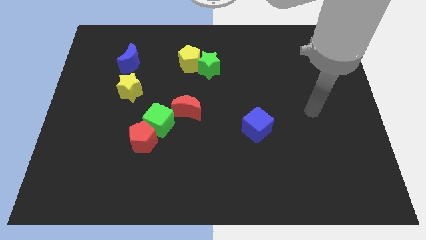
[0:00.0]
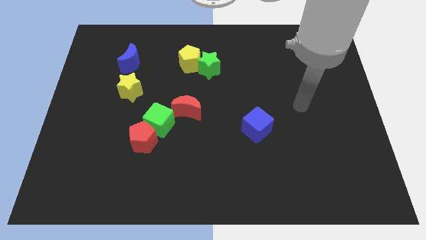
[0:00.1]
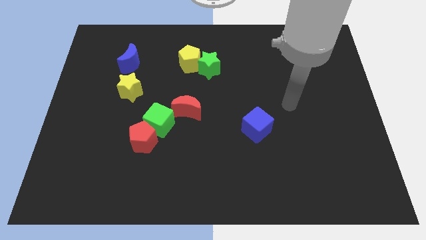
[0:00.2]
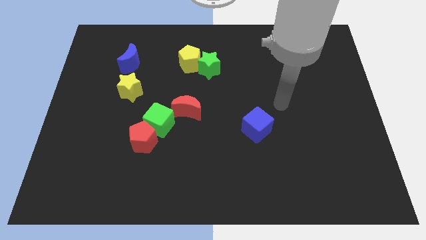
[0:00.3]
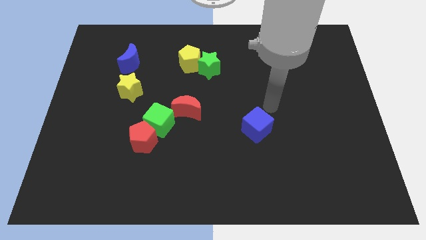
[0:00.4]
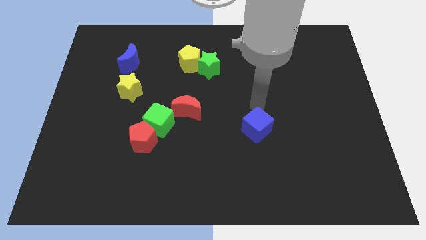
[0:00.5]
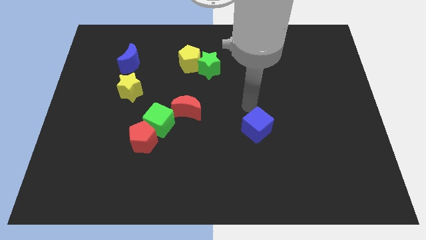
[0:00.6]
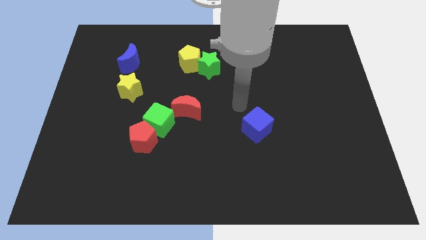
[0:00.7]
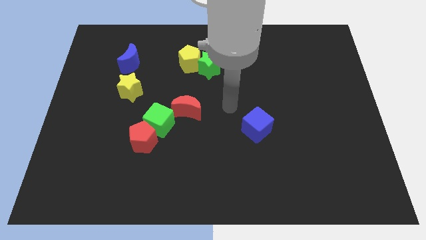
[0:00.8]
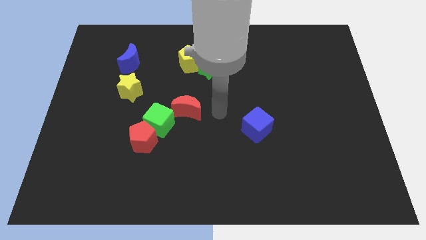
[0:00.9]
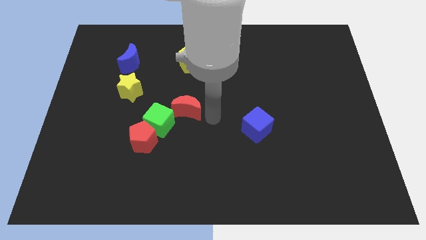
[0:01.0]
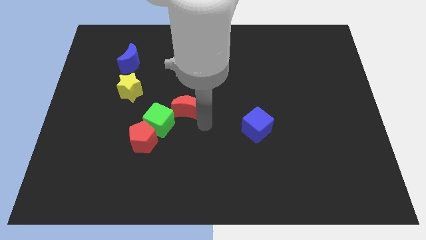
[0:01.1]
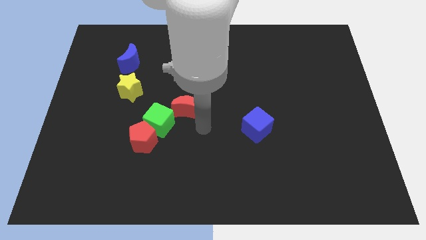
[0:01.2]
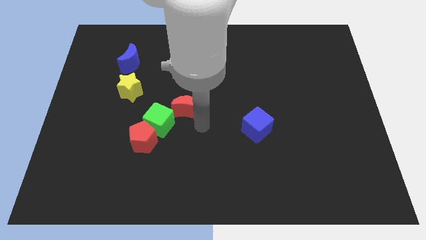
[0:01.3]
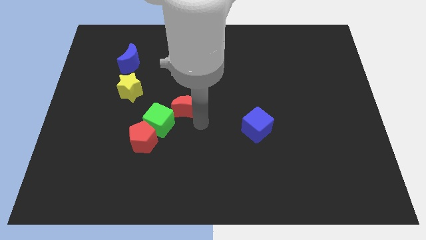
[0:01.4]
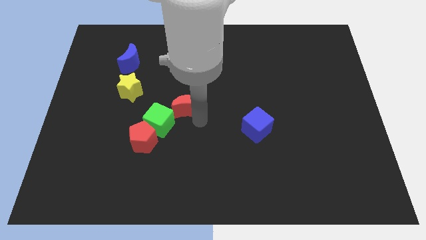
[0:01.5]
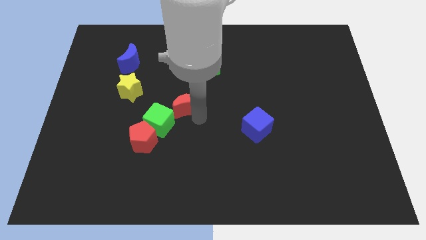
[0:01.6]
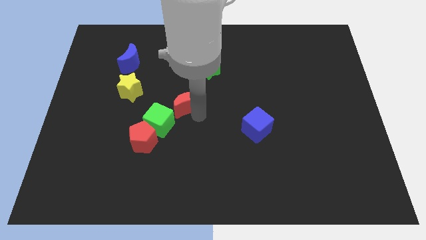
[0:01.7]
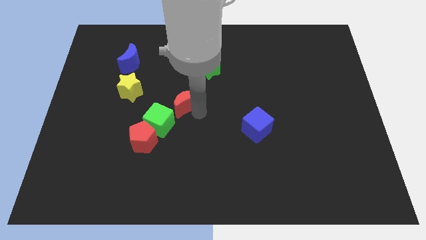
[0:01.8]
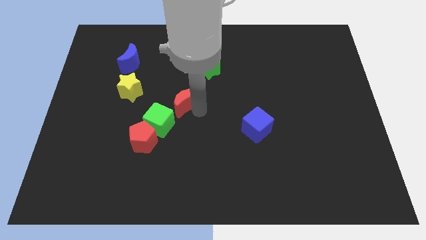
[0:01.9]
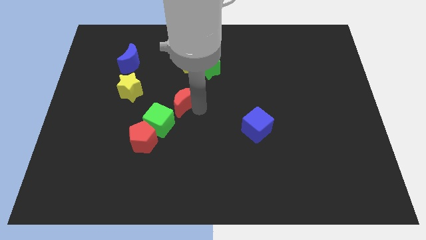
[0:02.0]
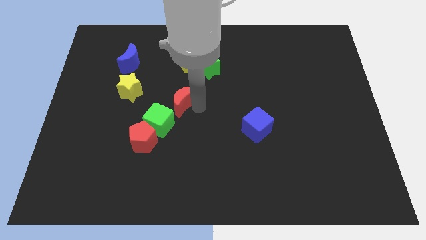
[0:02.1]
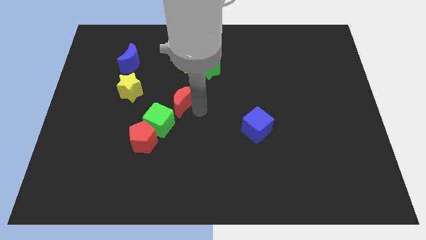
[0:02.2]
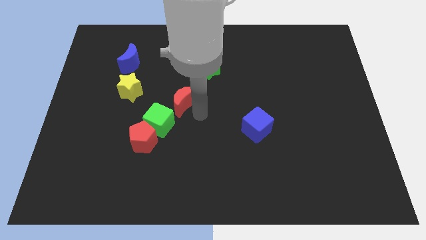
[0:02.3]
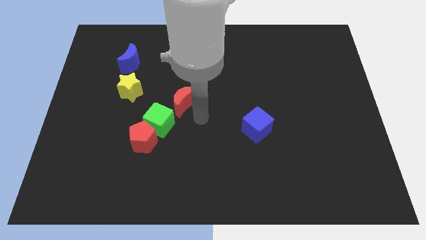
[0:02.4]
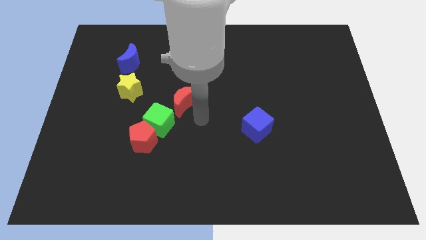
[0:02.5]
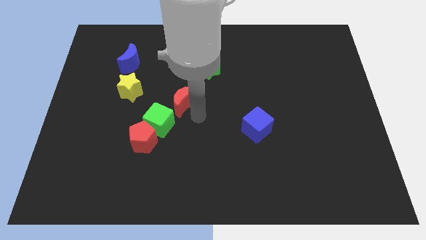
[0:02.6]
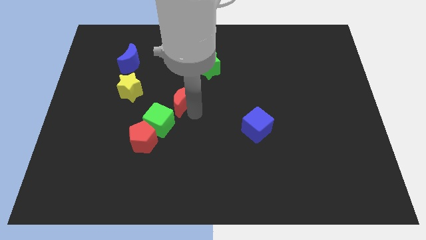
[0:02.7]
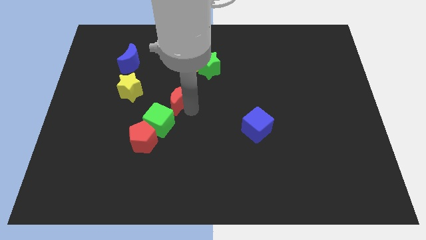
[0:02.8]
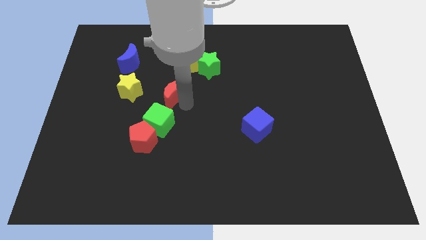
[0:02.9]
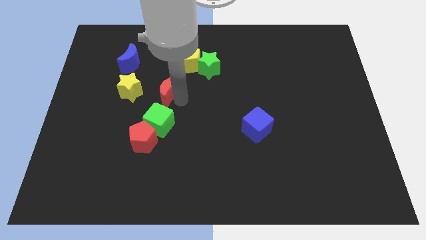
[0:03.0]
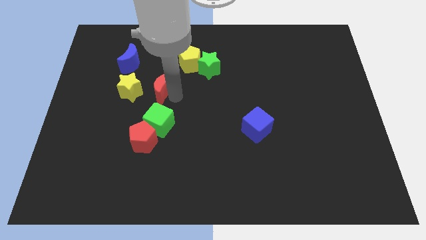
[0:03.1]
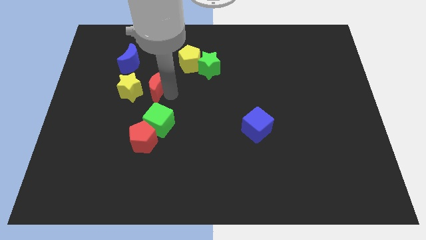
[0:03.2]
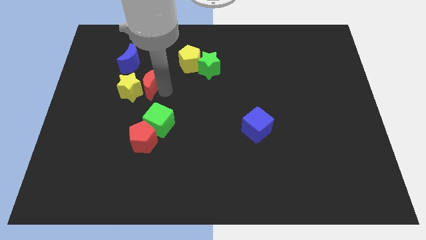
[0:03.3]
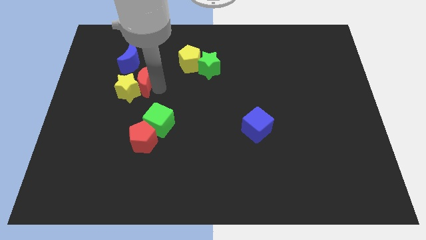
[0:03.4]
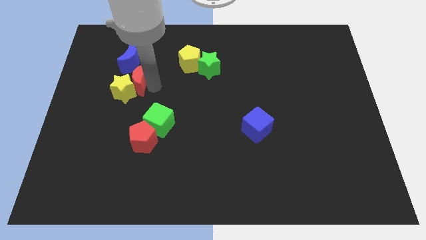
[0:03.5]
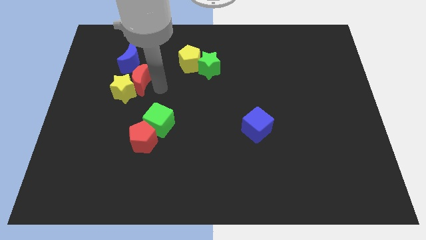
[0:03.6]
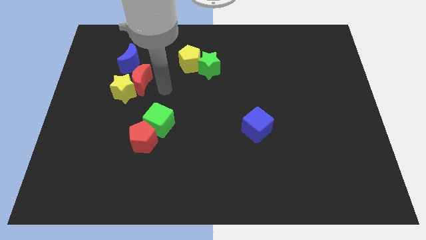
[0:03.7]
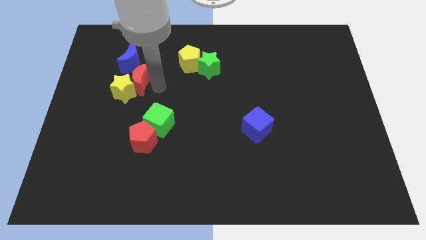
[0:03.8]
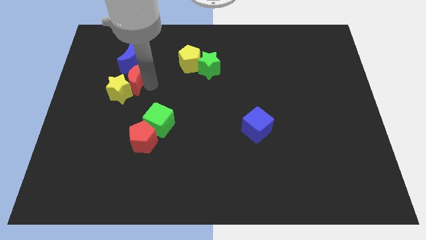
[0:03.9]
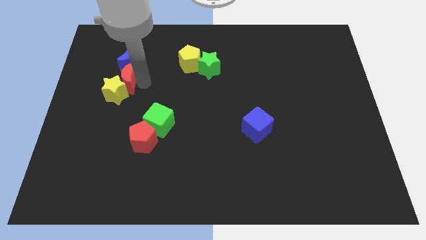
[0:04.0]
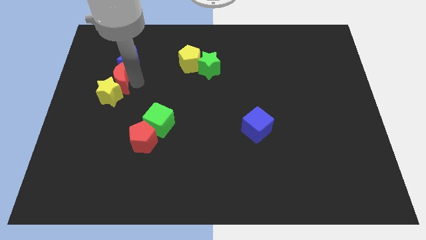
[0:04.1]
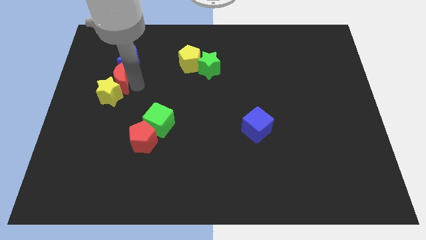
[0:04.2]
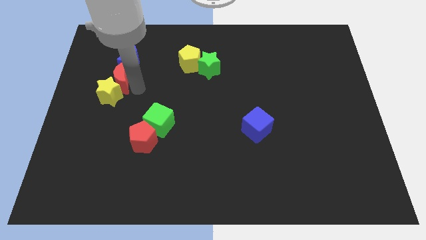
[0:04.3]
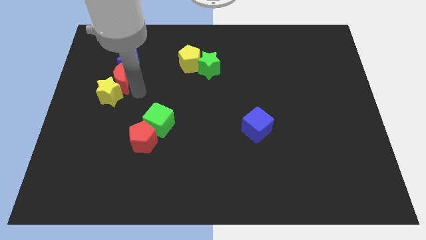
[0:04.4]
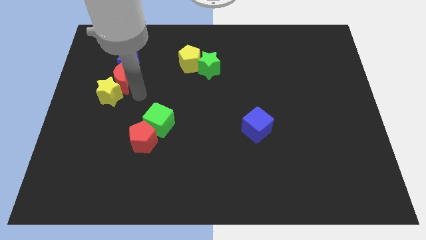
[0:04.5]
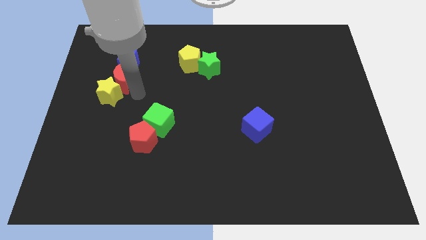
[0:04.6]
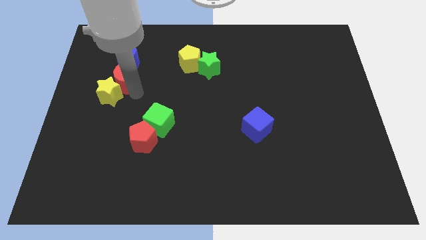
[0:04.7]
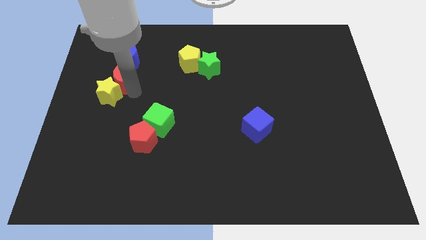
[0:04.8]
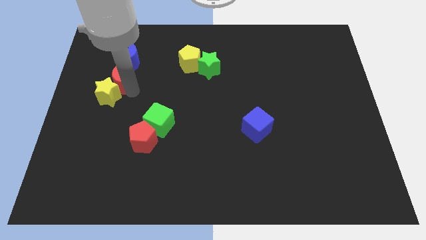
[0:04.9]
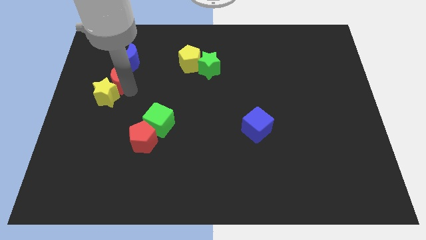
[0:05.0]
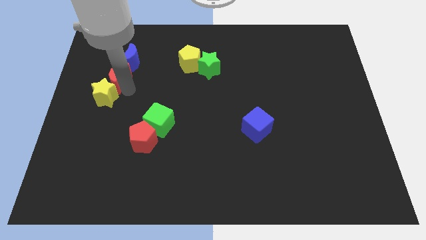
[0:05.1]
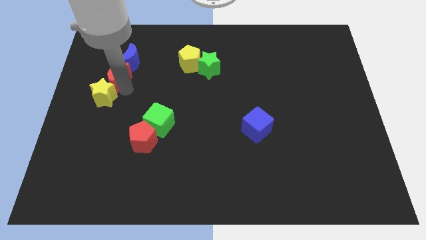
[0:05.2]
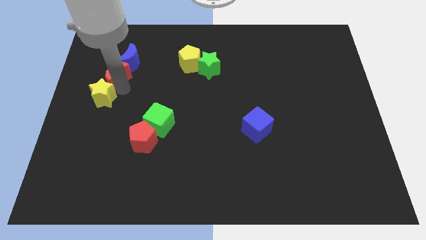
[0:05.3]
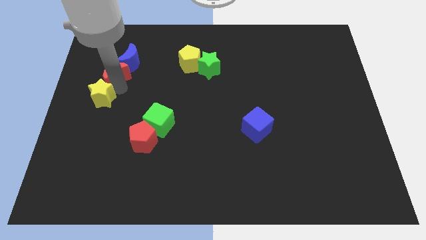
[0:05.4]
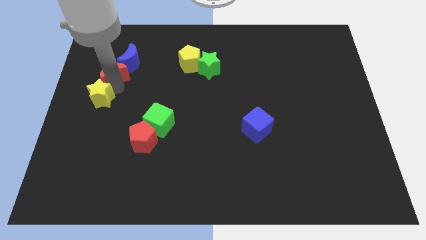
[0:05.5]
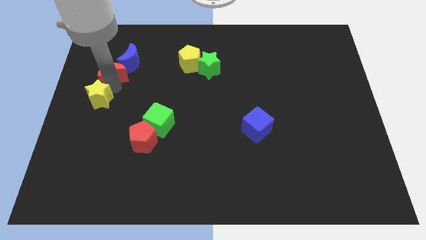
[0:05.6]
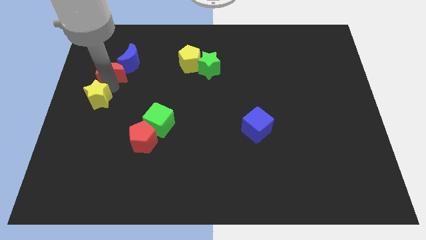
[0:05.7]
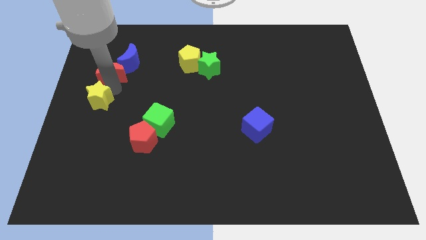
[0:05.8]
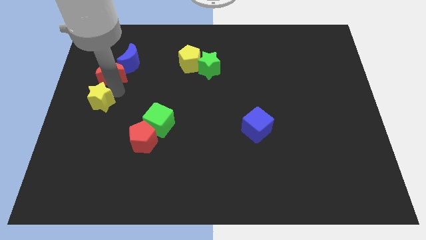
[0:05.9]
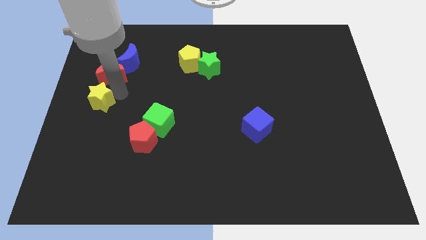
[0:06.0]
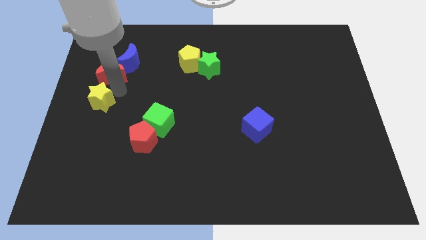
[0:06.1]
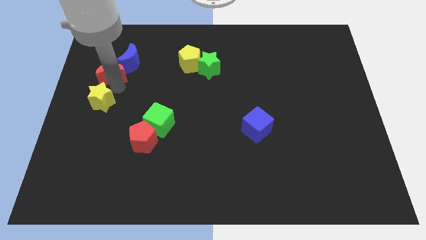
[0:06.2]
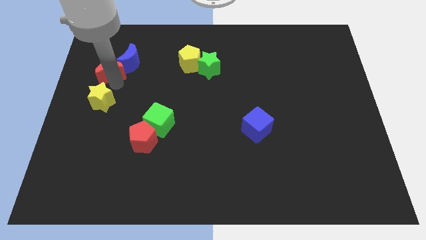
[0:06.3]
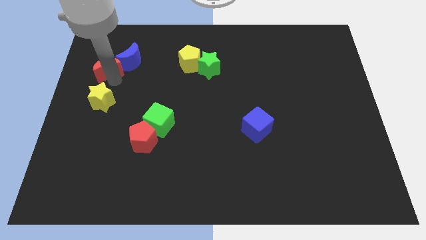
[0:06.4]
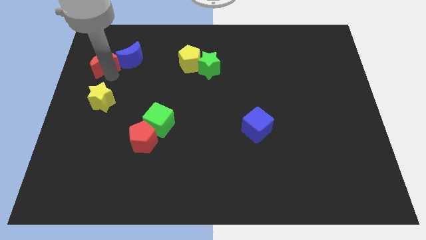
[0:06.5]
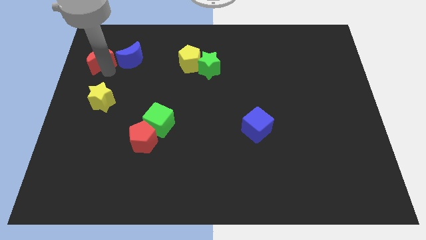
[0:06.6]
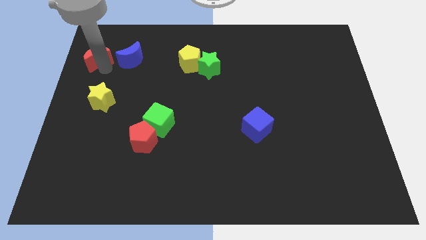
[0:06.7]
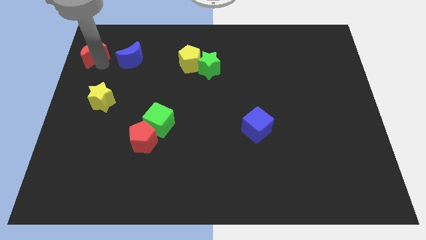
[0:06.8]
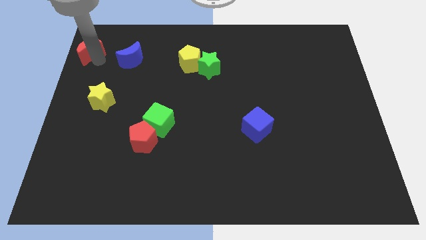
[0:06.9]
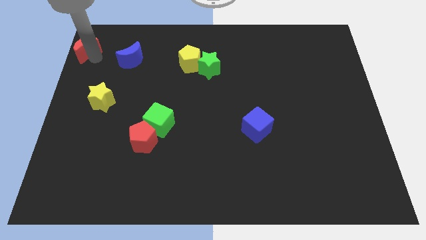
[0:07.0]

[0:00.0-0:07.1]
move the red moon to the upper left corner
